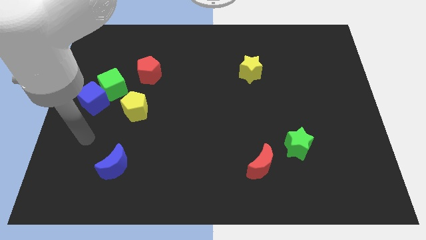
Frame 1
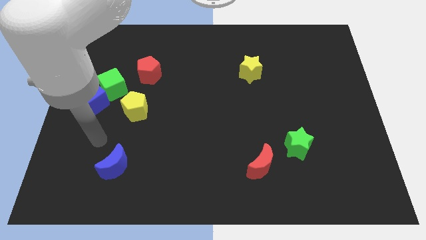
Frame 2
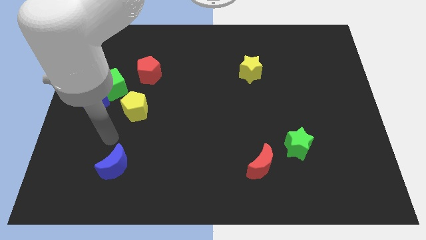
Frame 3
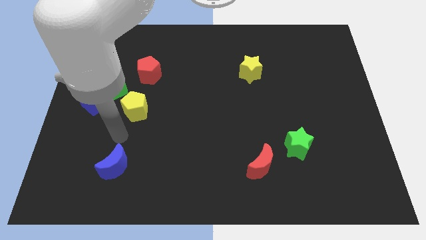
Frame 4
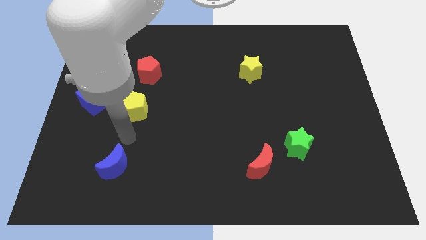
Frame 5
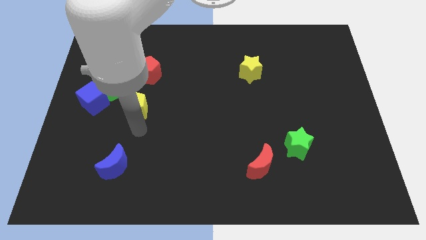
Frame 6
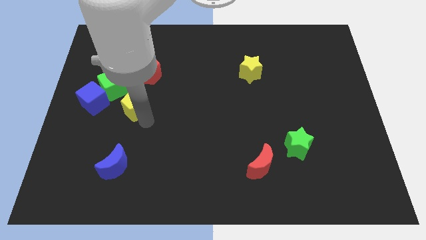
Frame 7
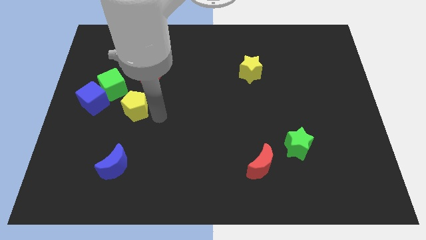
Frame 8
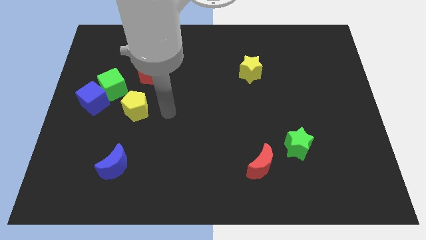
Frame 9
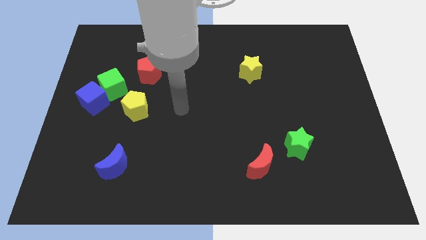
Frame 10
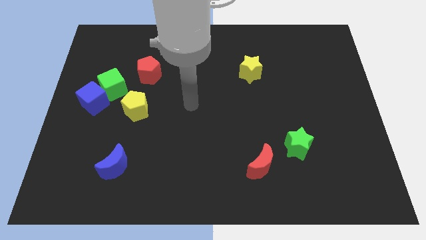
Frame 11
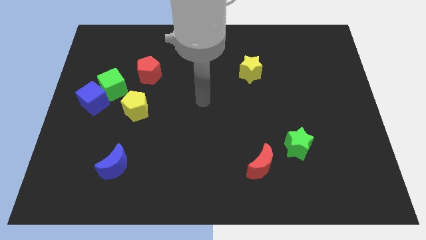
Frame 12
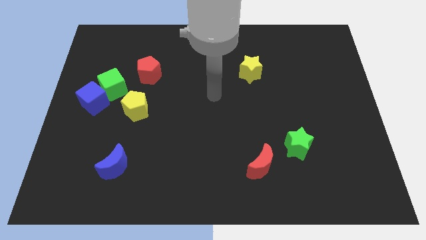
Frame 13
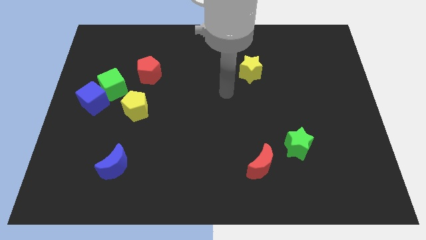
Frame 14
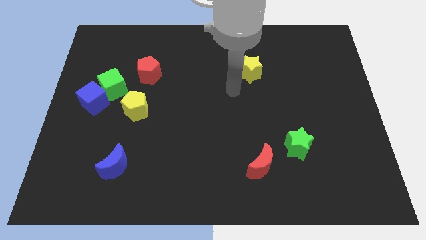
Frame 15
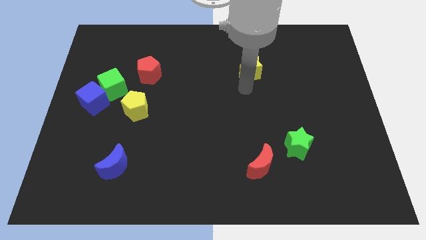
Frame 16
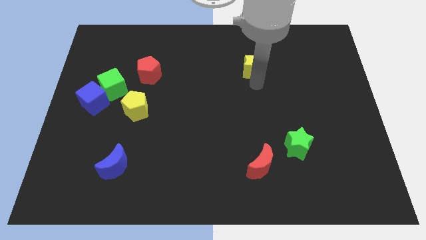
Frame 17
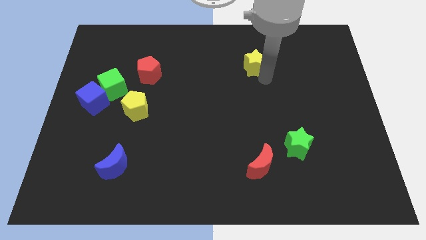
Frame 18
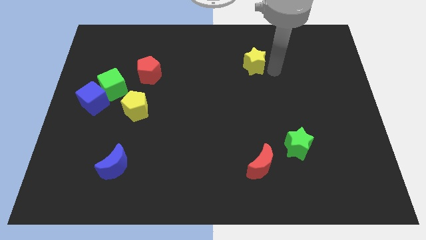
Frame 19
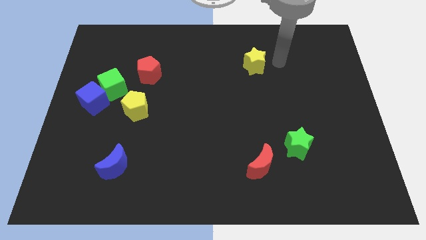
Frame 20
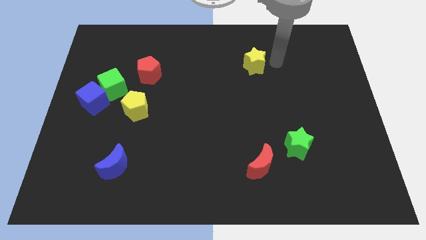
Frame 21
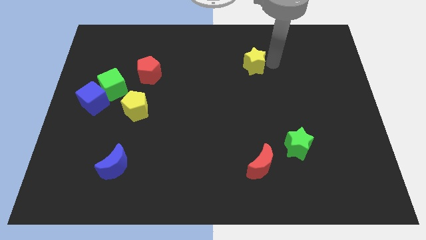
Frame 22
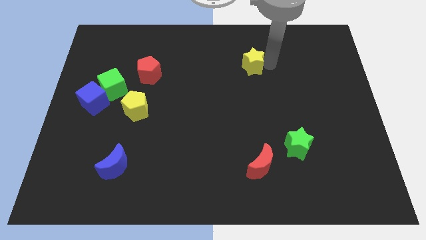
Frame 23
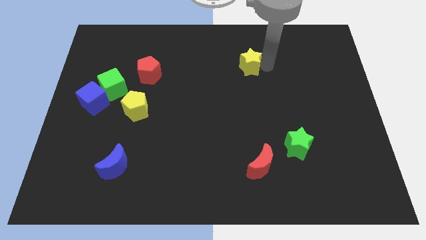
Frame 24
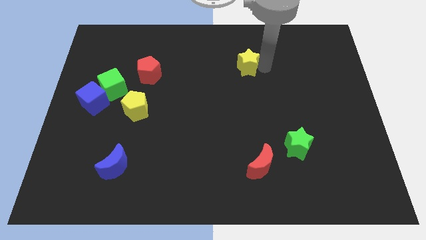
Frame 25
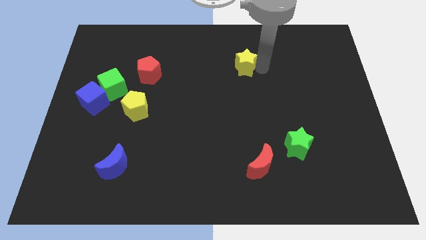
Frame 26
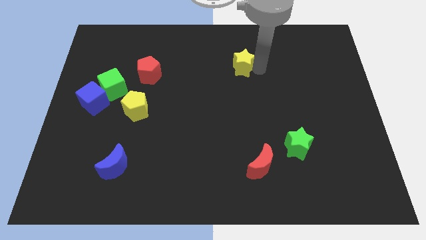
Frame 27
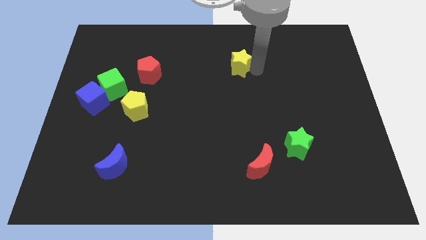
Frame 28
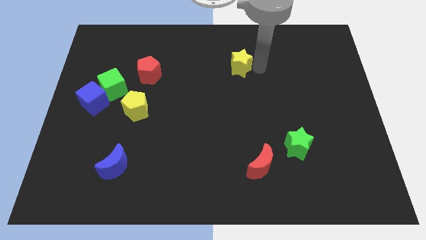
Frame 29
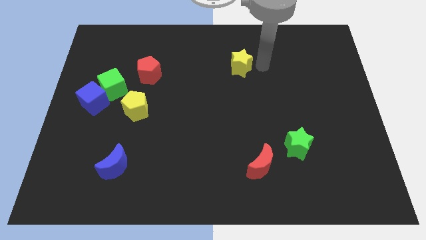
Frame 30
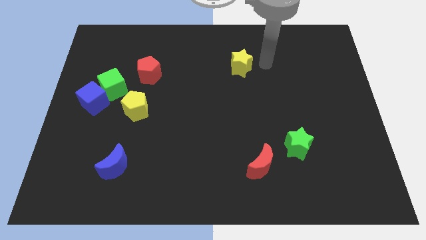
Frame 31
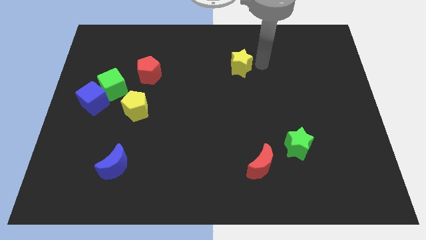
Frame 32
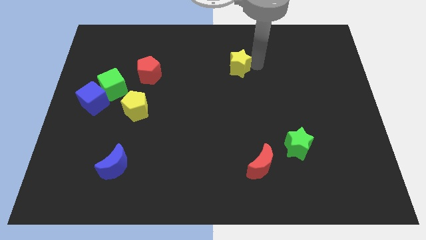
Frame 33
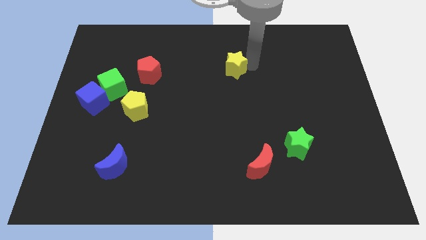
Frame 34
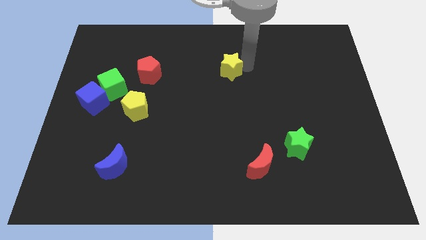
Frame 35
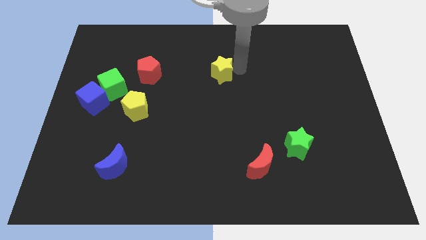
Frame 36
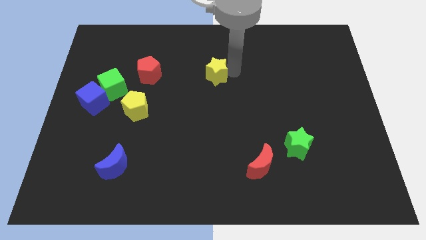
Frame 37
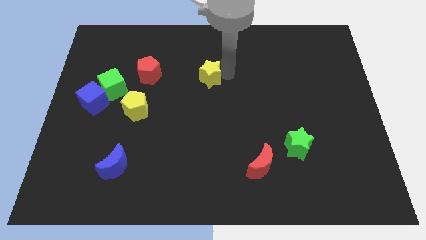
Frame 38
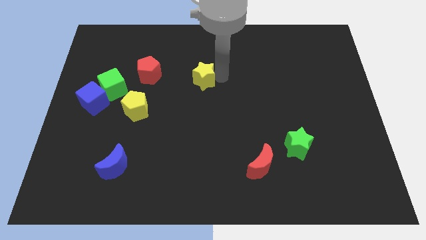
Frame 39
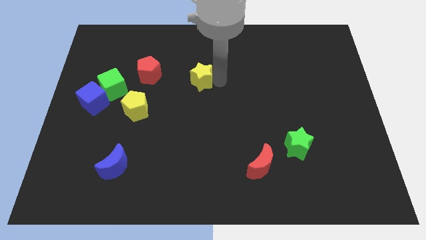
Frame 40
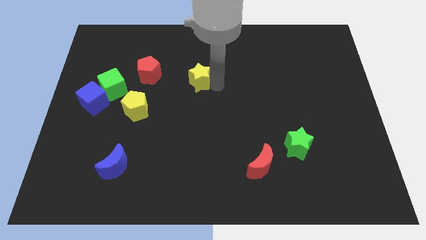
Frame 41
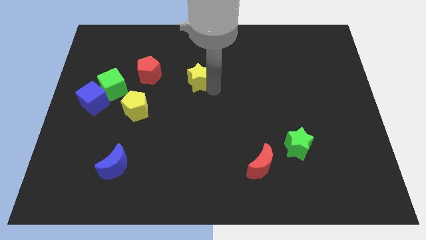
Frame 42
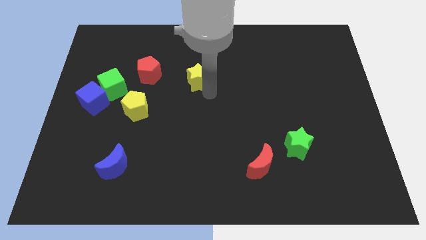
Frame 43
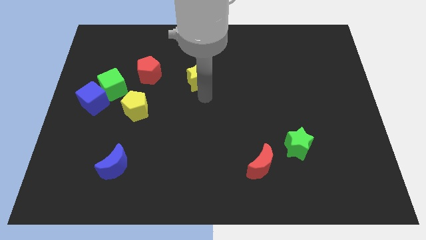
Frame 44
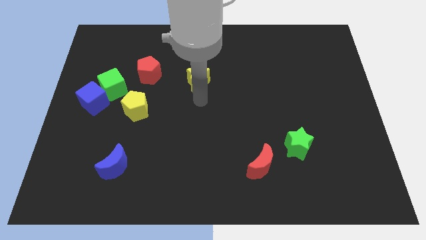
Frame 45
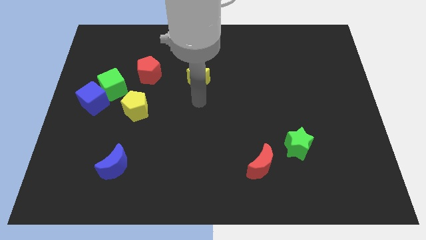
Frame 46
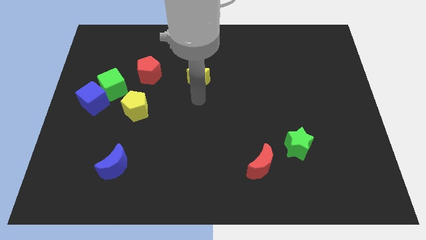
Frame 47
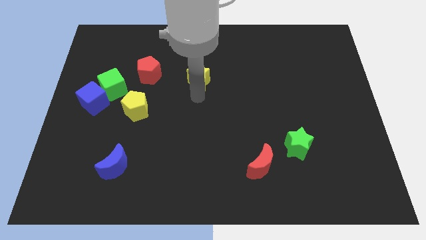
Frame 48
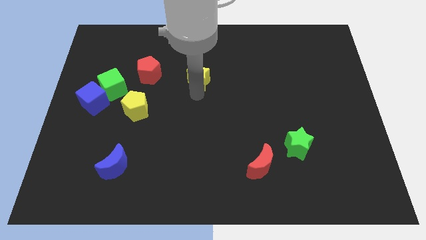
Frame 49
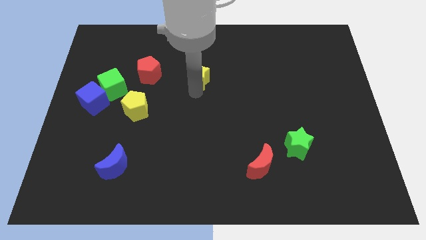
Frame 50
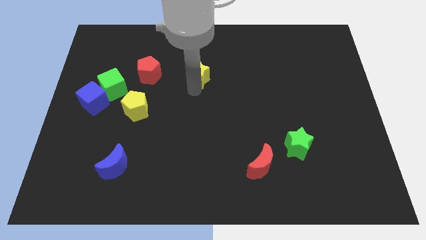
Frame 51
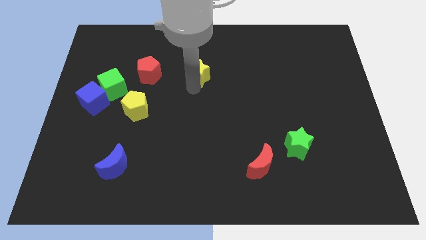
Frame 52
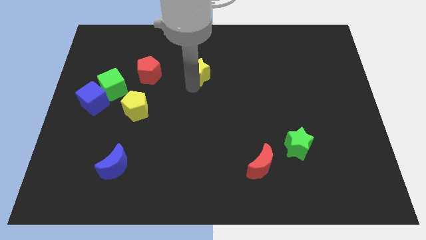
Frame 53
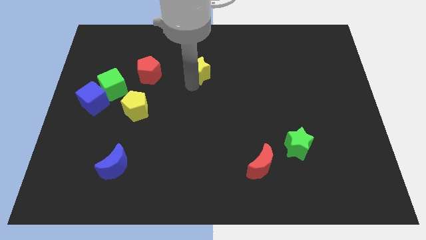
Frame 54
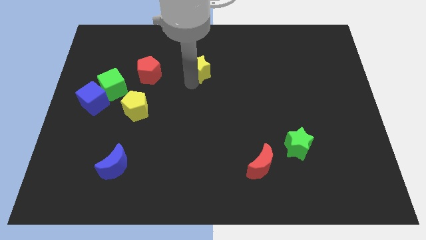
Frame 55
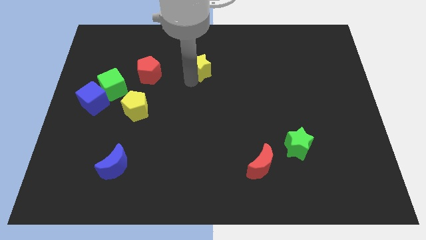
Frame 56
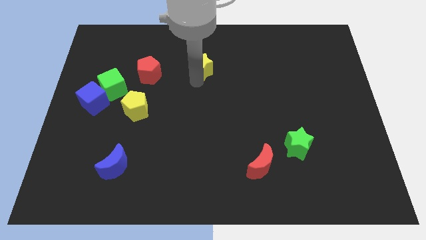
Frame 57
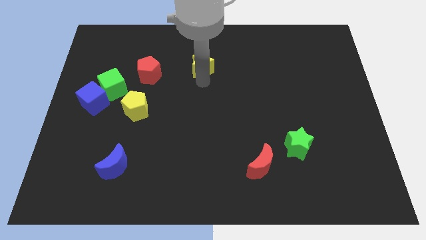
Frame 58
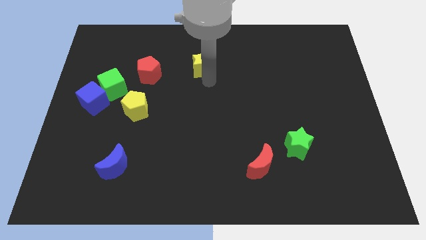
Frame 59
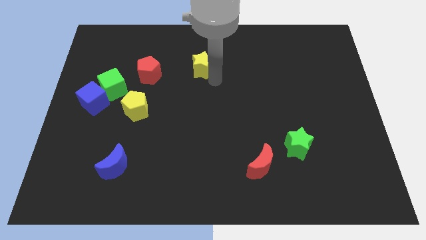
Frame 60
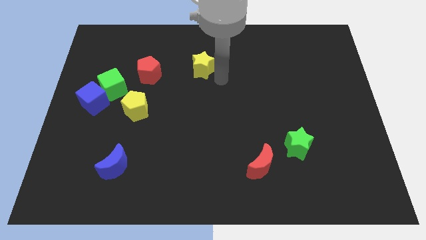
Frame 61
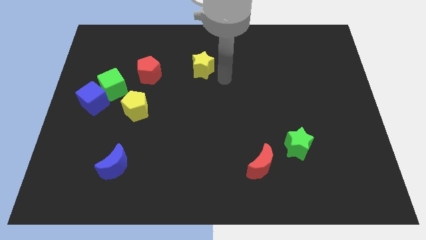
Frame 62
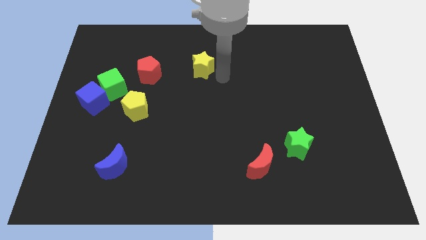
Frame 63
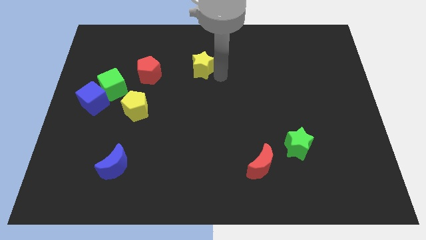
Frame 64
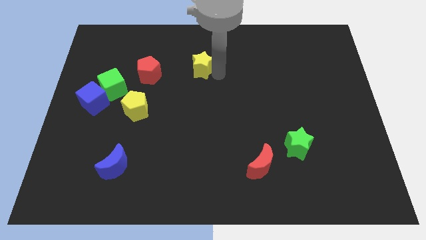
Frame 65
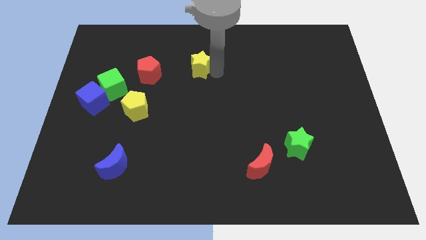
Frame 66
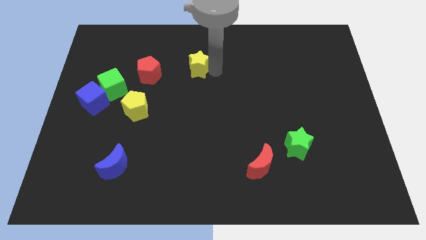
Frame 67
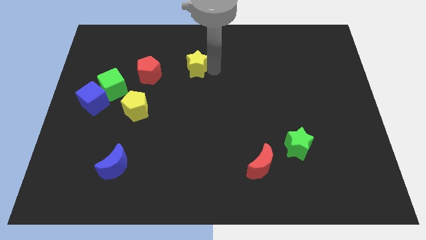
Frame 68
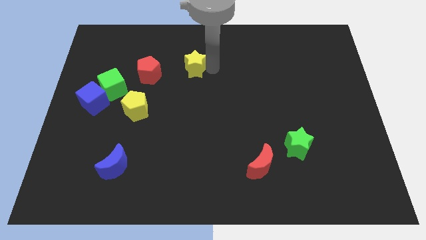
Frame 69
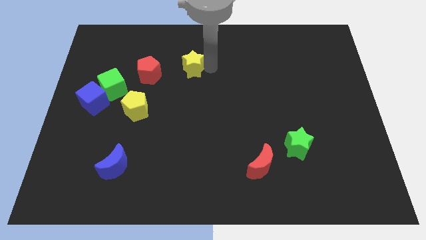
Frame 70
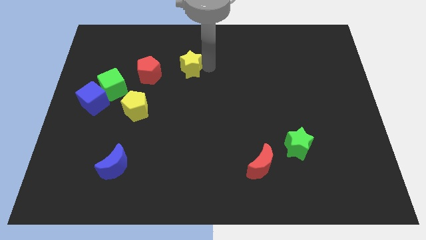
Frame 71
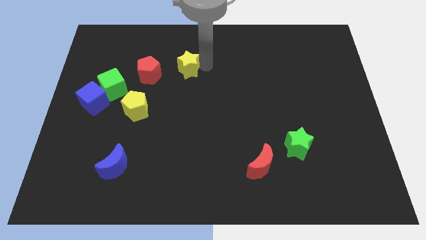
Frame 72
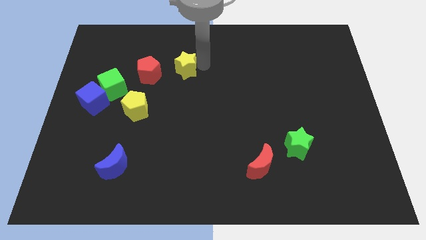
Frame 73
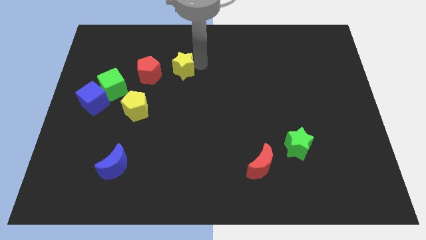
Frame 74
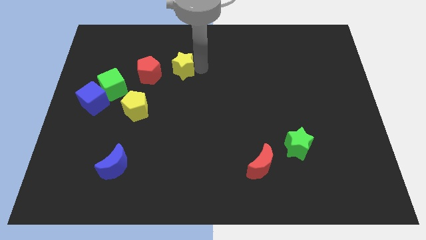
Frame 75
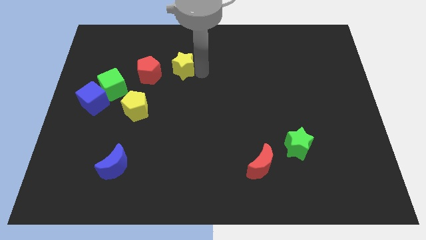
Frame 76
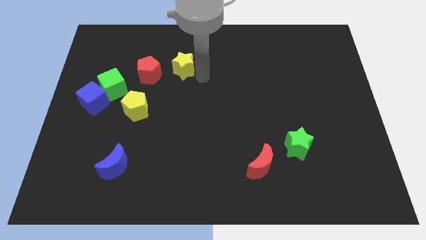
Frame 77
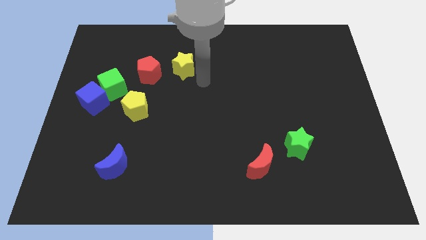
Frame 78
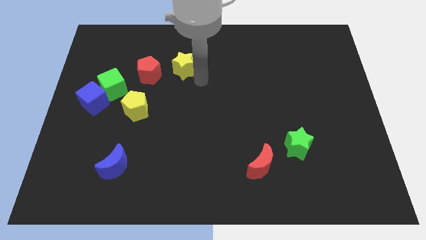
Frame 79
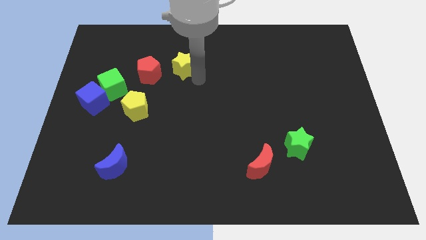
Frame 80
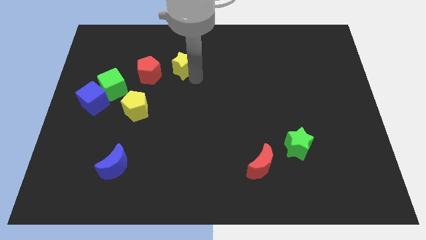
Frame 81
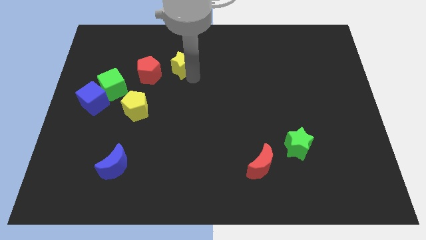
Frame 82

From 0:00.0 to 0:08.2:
push the yellow star to the top right of the red pentagon
